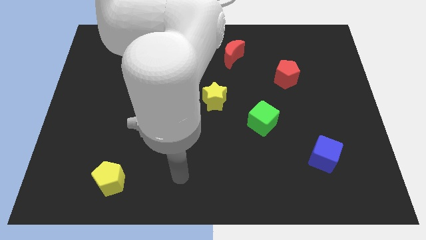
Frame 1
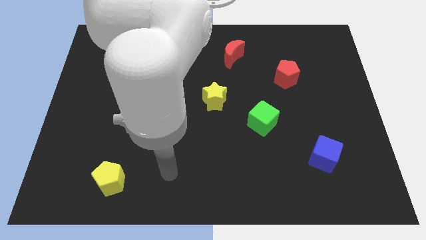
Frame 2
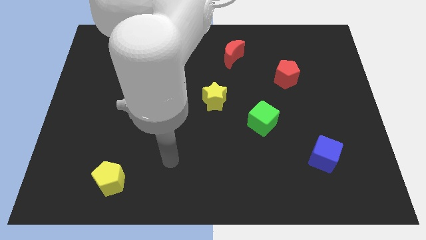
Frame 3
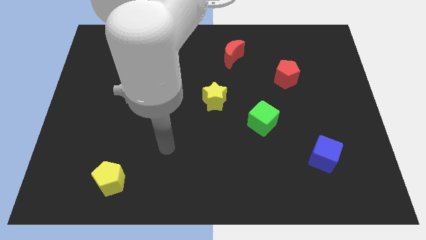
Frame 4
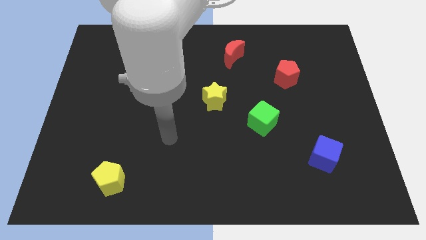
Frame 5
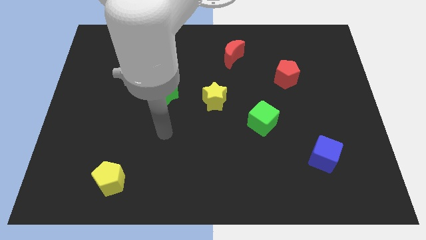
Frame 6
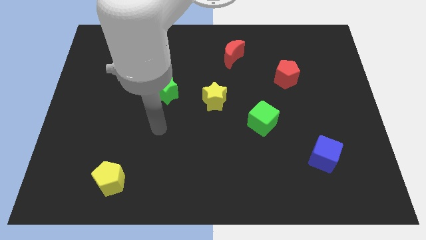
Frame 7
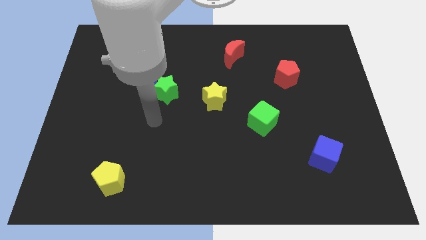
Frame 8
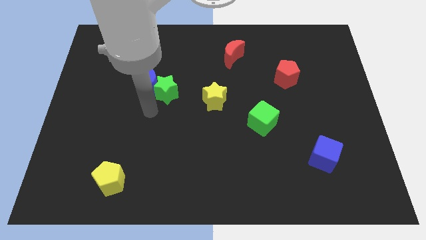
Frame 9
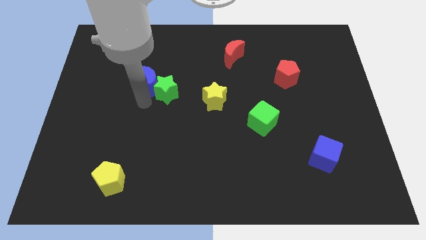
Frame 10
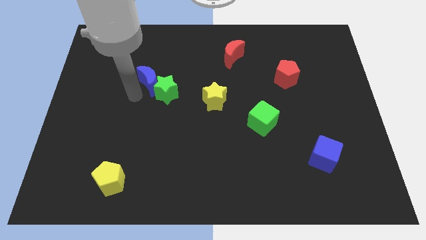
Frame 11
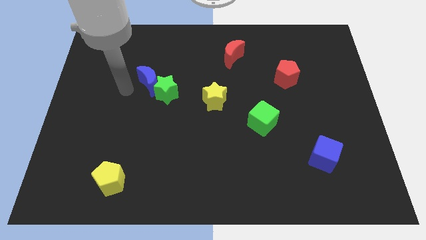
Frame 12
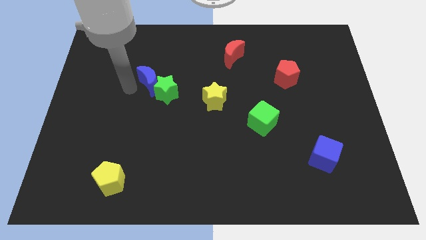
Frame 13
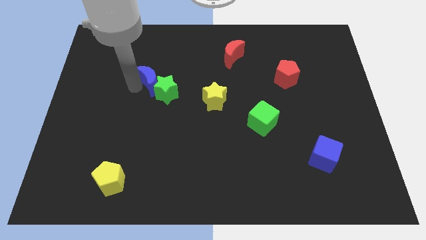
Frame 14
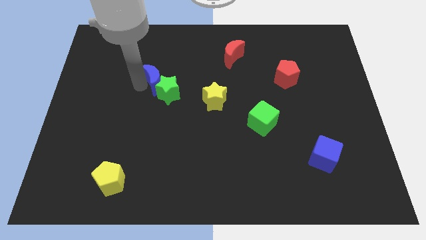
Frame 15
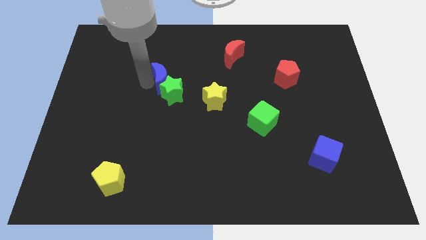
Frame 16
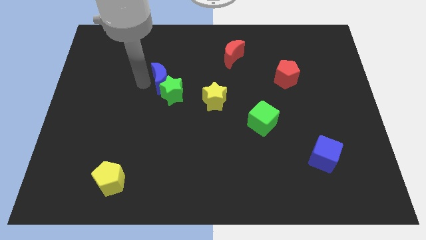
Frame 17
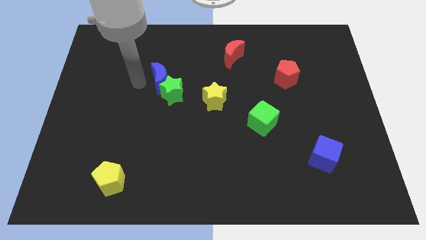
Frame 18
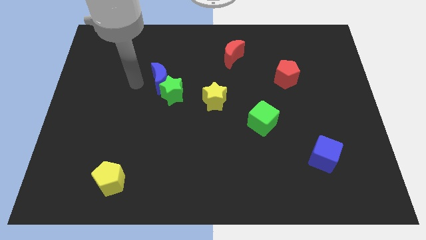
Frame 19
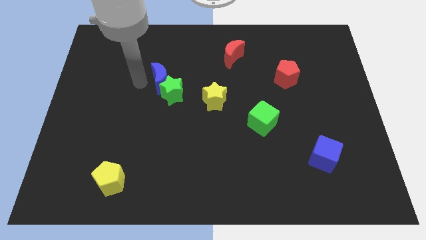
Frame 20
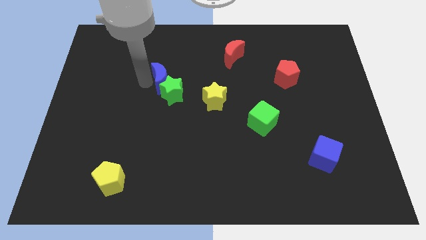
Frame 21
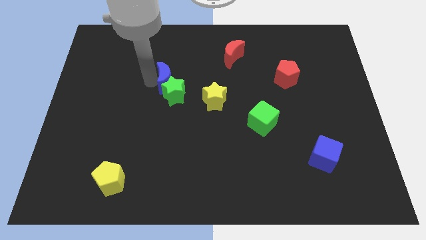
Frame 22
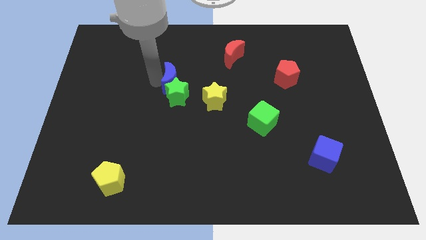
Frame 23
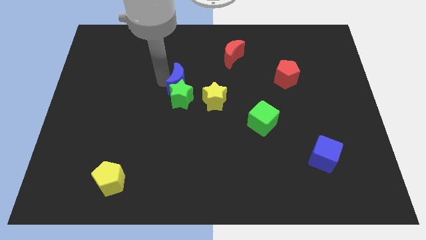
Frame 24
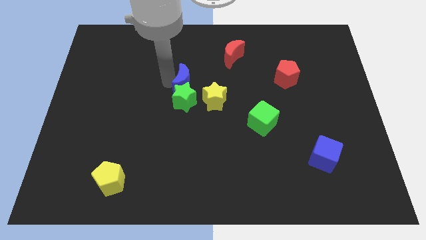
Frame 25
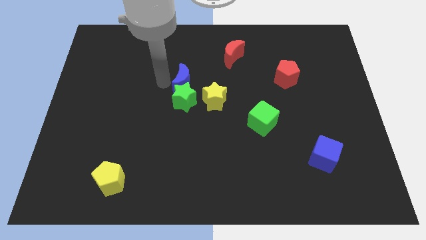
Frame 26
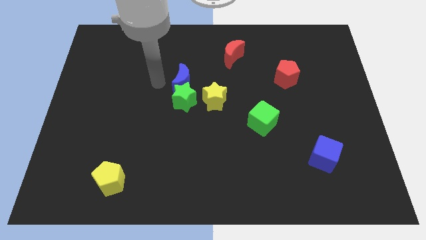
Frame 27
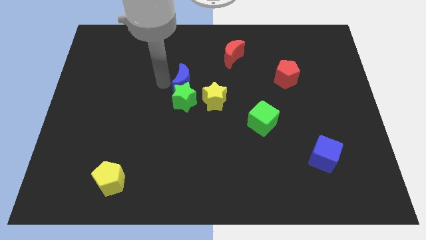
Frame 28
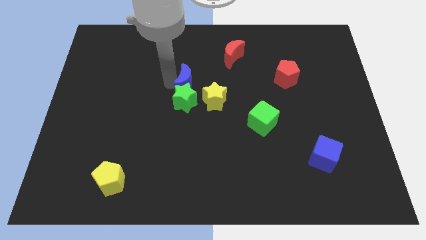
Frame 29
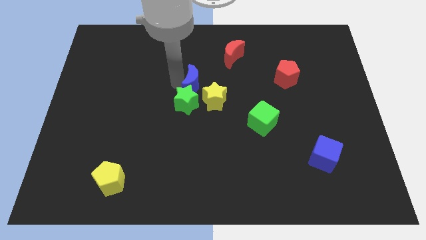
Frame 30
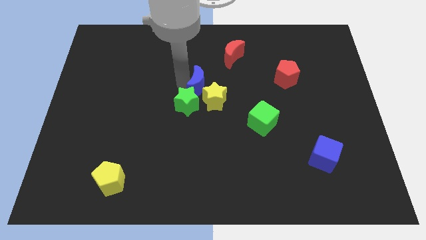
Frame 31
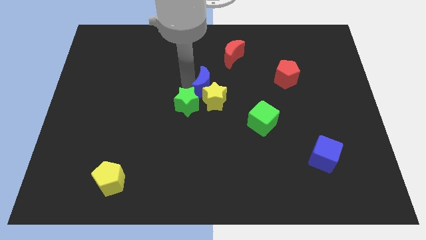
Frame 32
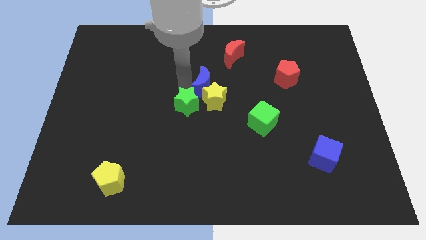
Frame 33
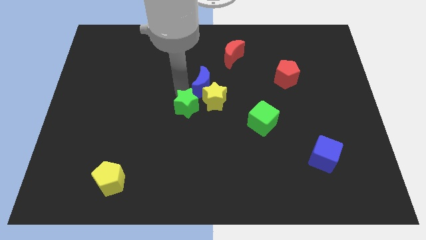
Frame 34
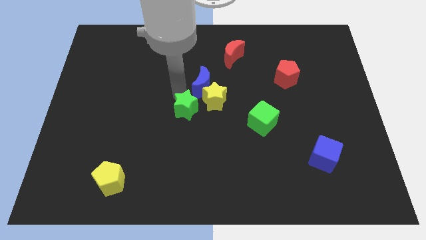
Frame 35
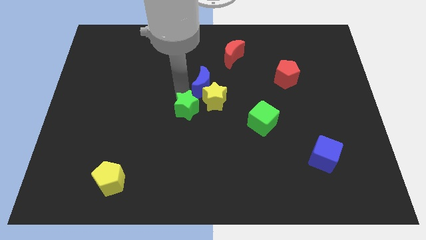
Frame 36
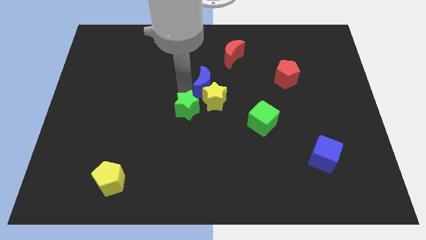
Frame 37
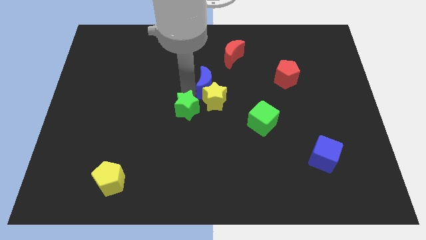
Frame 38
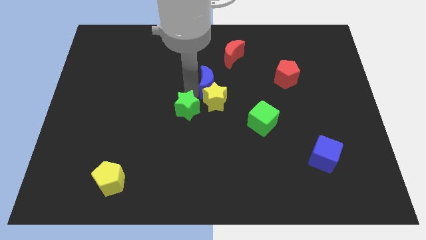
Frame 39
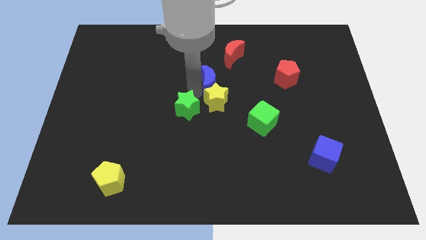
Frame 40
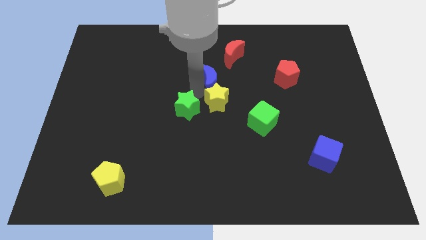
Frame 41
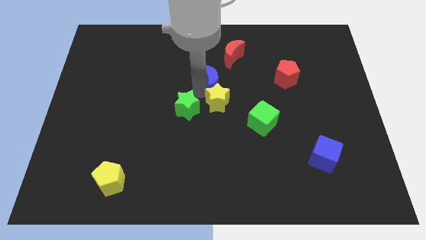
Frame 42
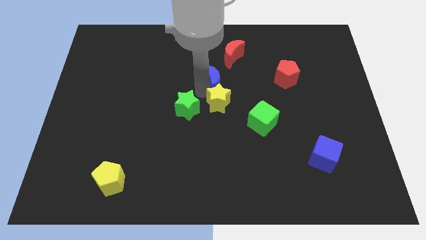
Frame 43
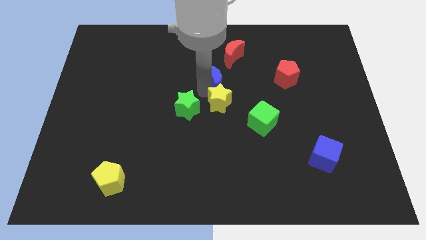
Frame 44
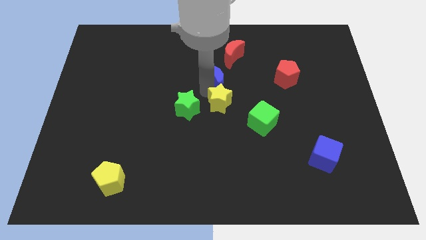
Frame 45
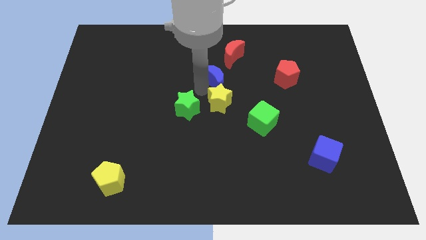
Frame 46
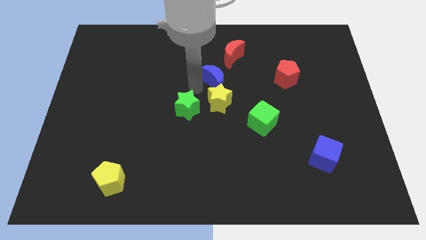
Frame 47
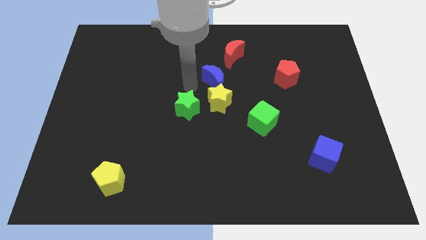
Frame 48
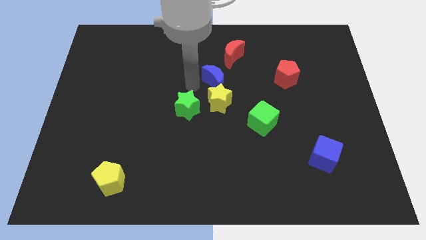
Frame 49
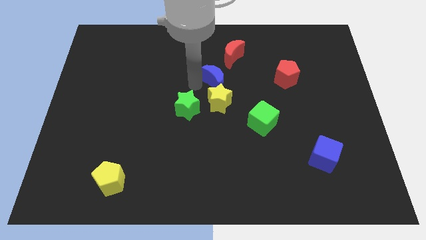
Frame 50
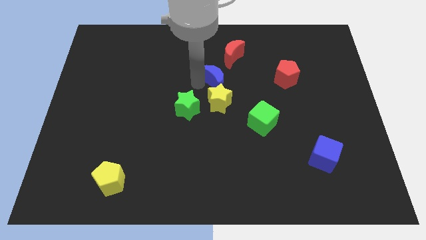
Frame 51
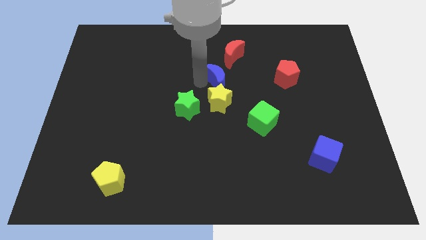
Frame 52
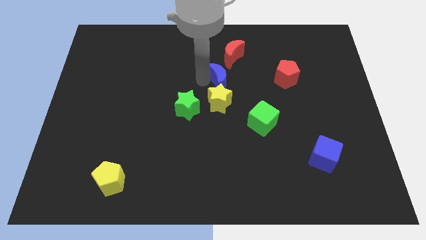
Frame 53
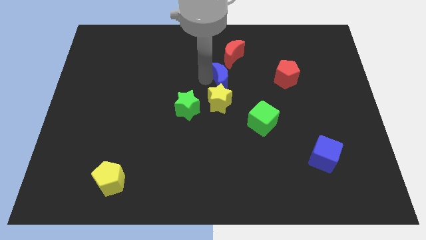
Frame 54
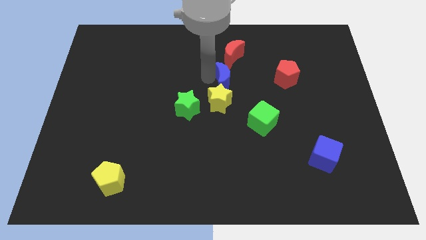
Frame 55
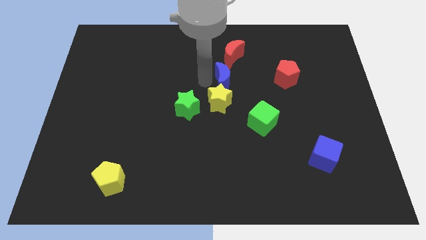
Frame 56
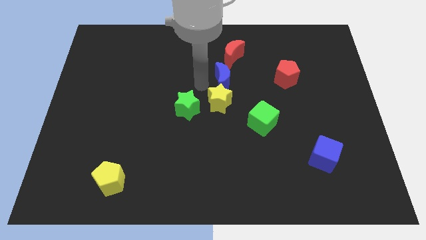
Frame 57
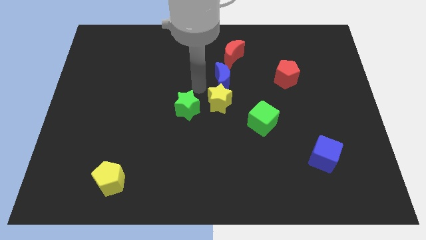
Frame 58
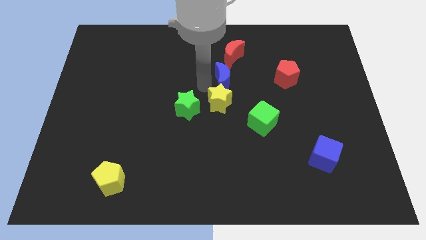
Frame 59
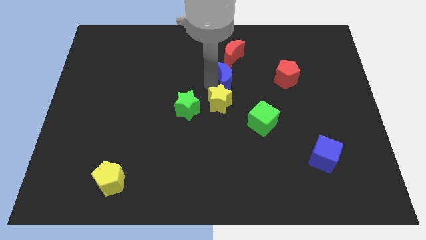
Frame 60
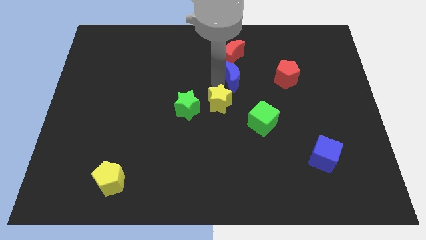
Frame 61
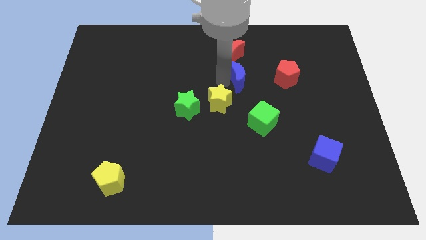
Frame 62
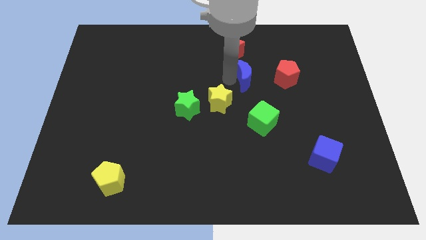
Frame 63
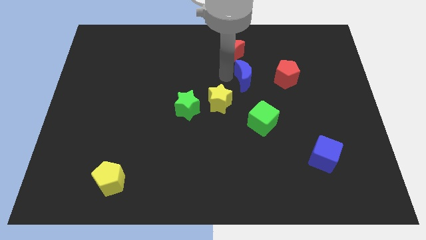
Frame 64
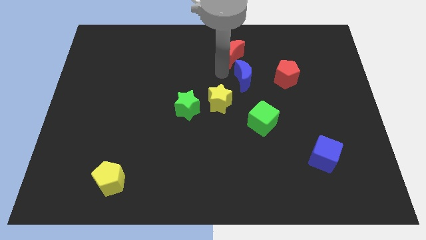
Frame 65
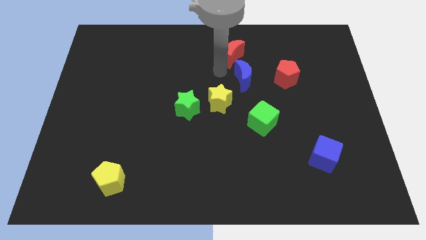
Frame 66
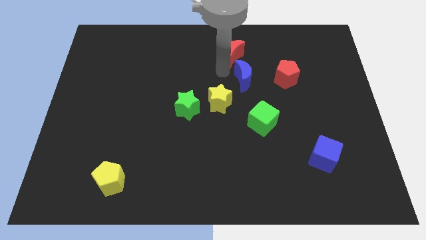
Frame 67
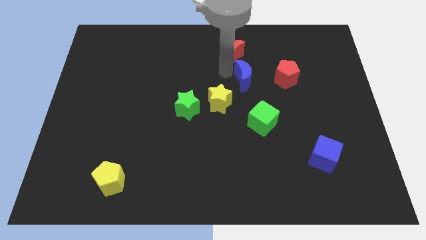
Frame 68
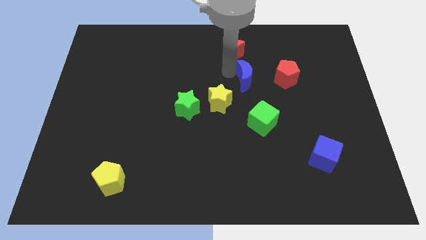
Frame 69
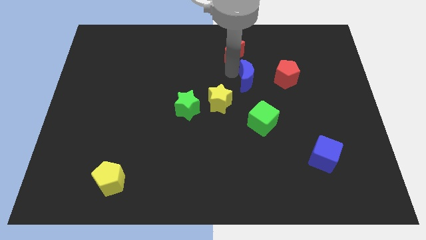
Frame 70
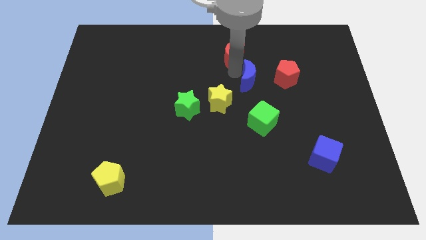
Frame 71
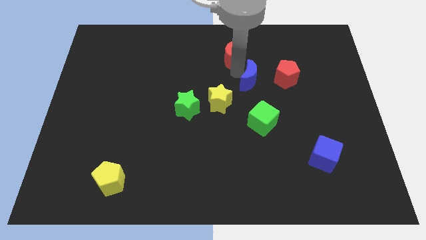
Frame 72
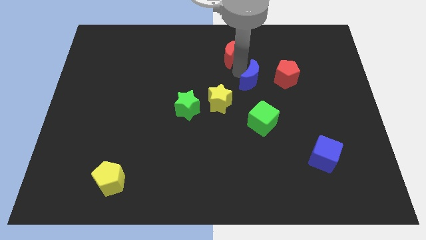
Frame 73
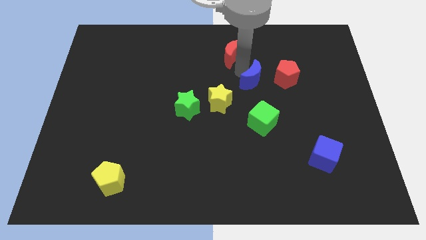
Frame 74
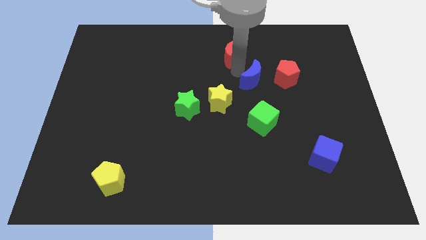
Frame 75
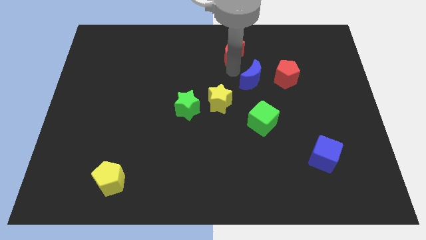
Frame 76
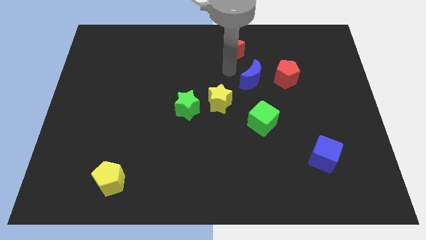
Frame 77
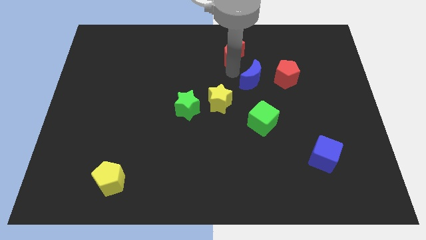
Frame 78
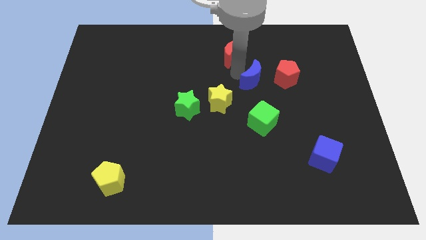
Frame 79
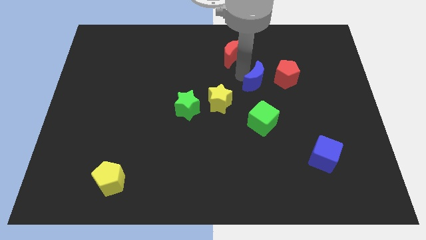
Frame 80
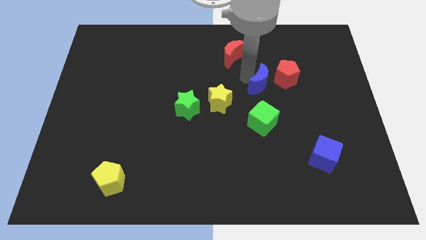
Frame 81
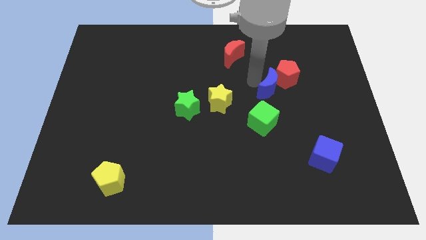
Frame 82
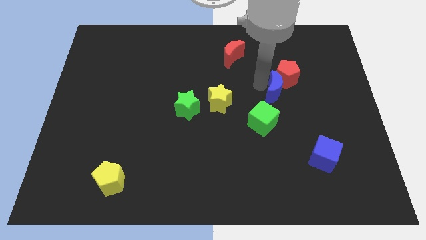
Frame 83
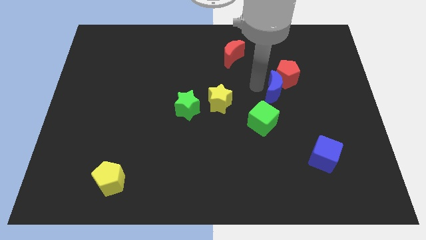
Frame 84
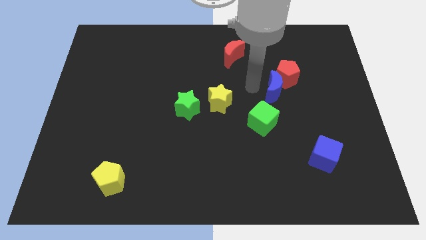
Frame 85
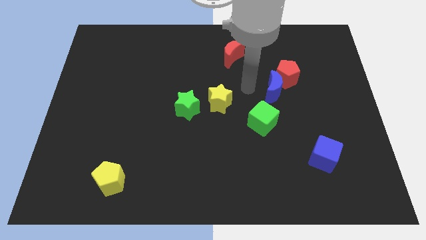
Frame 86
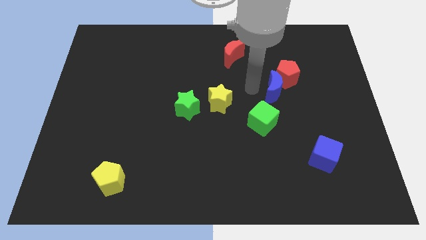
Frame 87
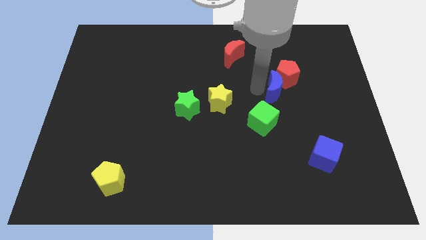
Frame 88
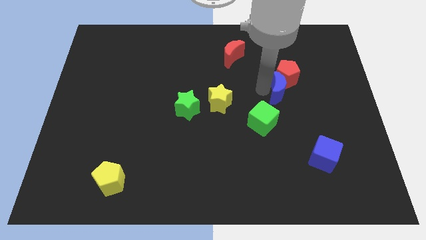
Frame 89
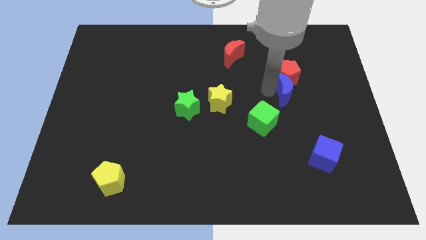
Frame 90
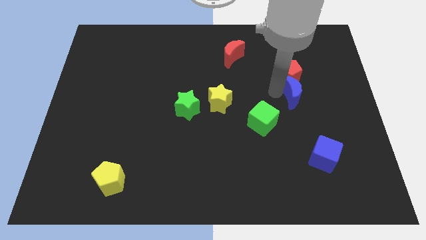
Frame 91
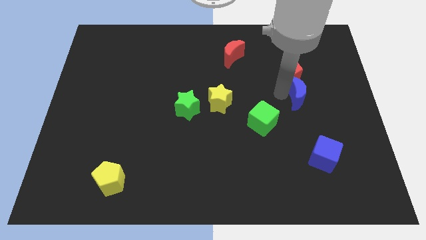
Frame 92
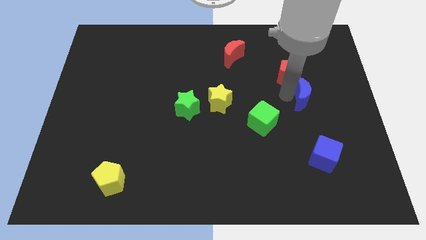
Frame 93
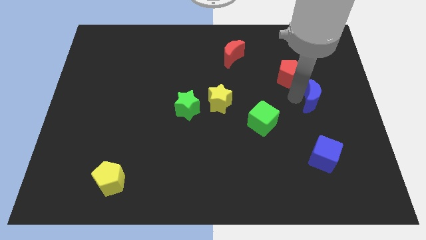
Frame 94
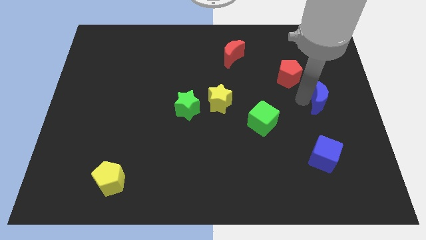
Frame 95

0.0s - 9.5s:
put the blue moon to the right side
